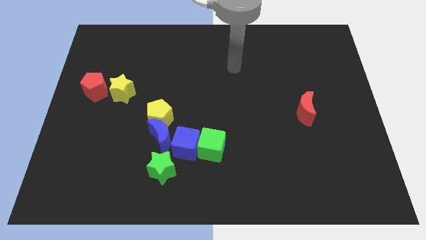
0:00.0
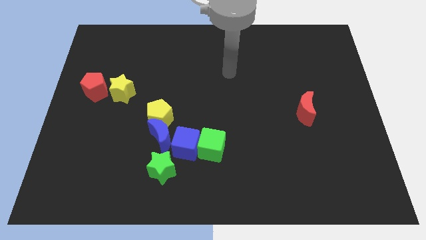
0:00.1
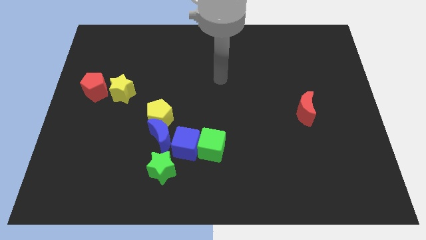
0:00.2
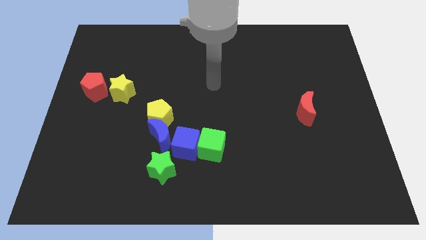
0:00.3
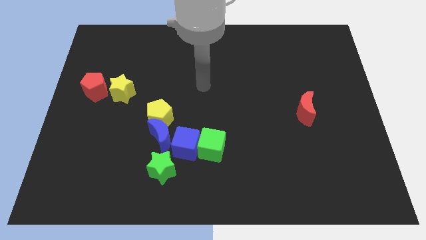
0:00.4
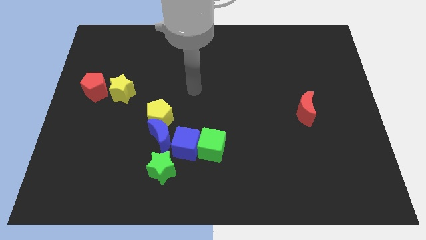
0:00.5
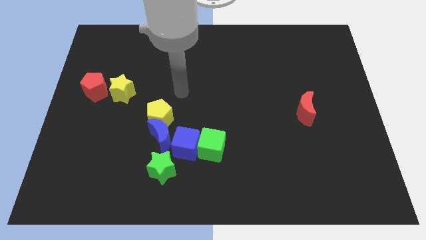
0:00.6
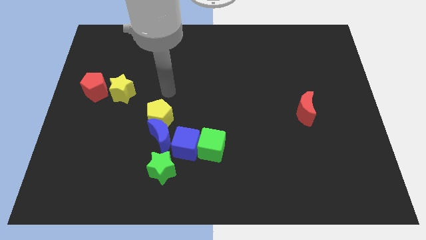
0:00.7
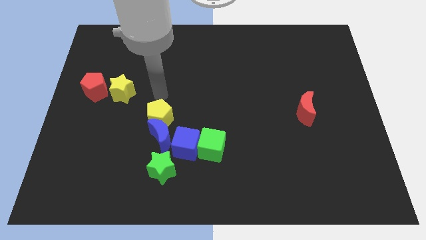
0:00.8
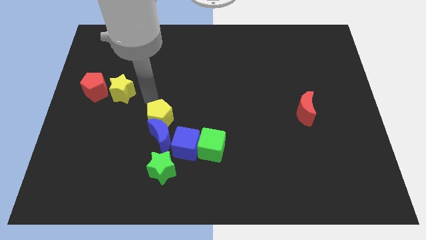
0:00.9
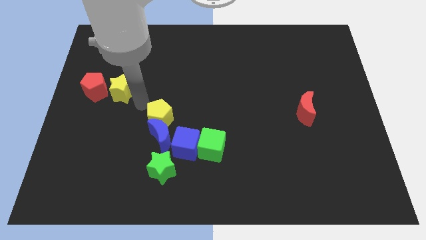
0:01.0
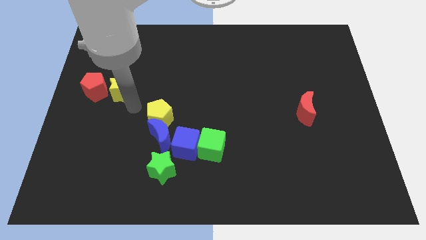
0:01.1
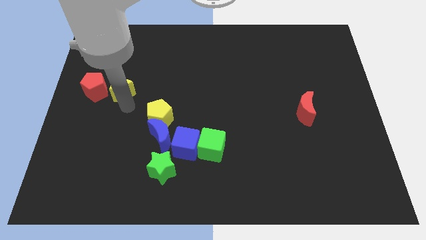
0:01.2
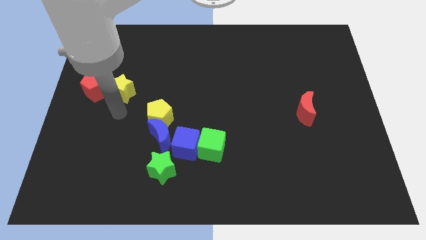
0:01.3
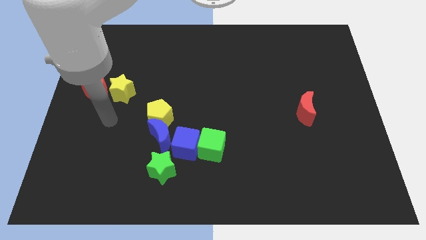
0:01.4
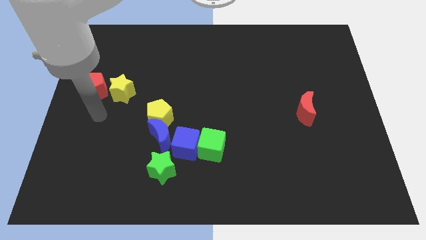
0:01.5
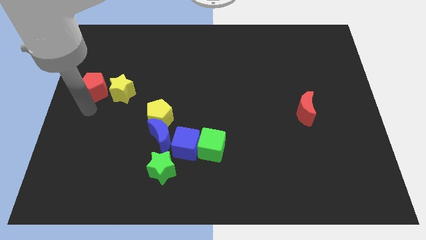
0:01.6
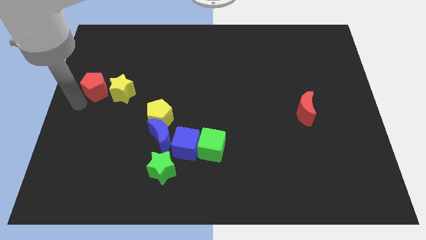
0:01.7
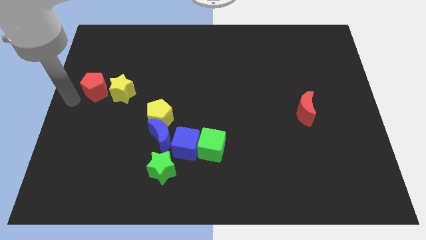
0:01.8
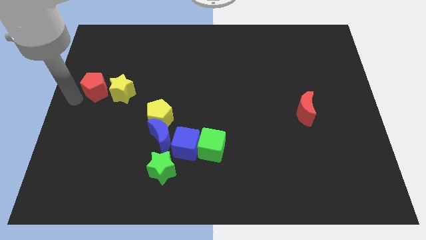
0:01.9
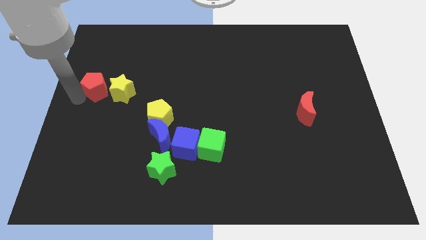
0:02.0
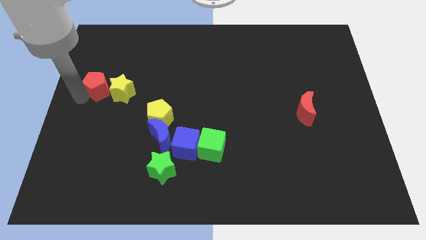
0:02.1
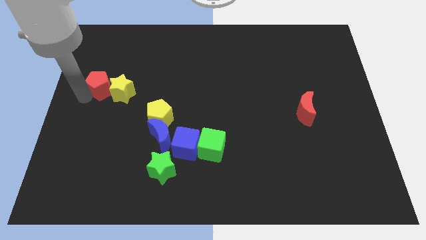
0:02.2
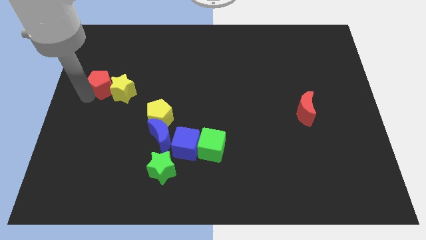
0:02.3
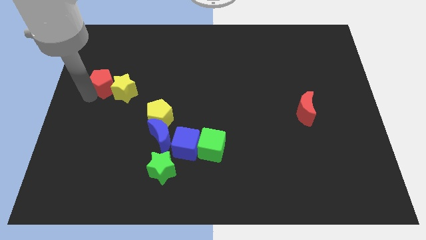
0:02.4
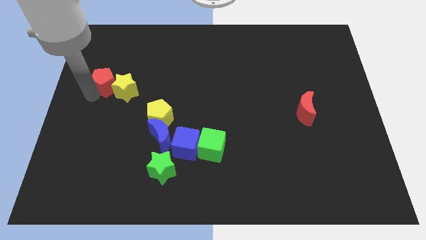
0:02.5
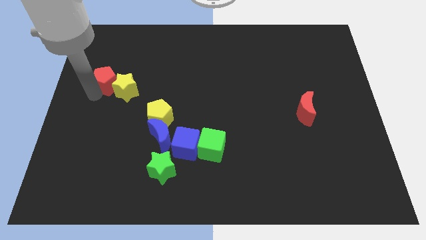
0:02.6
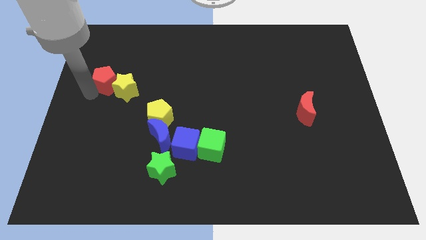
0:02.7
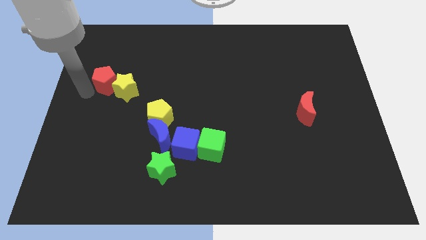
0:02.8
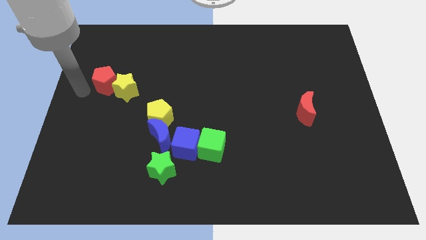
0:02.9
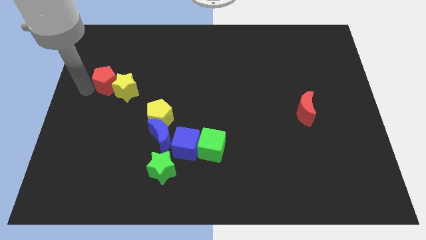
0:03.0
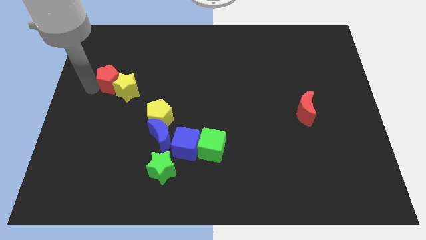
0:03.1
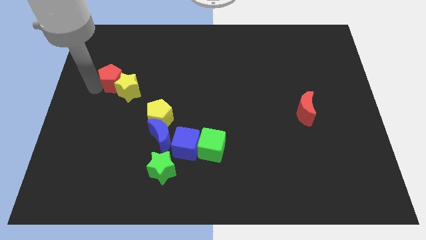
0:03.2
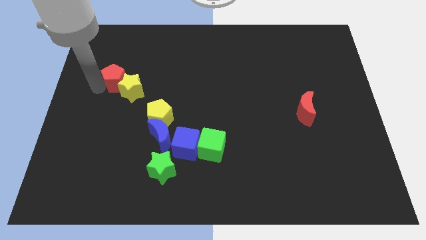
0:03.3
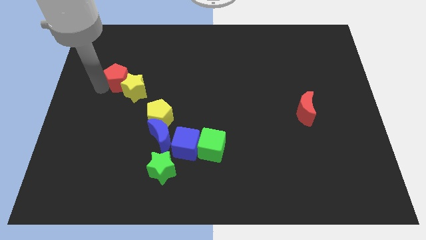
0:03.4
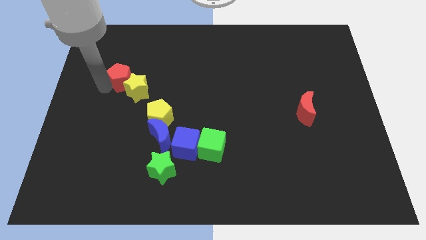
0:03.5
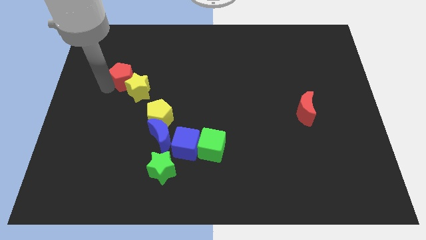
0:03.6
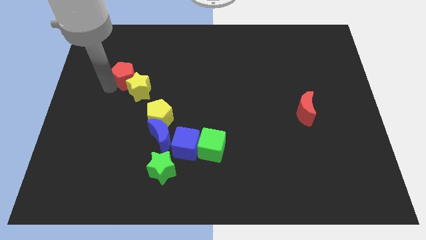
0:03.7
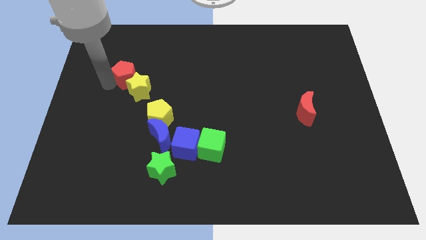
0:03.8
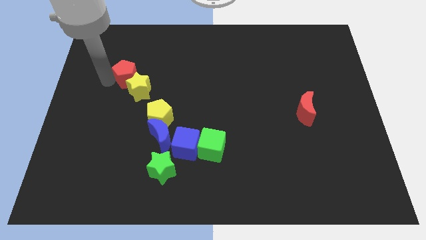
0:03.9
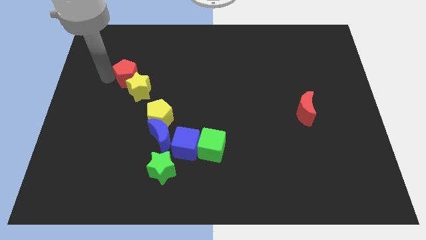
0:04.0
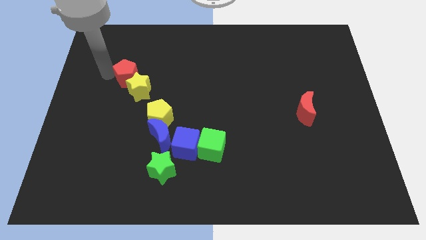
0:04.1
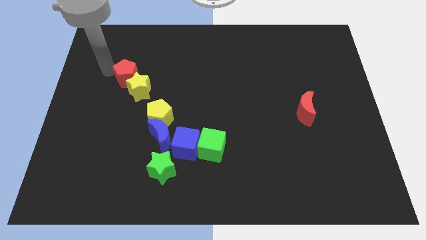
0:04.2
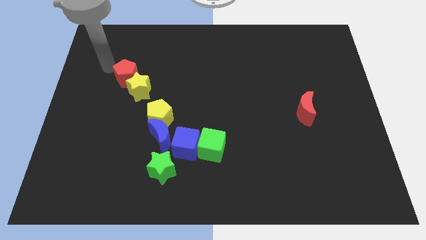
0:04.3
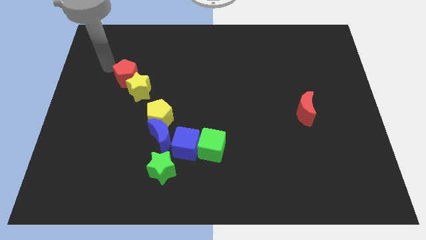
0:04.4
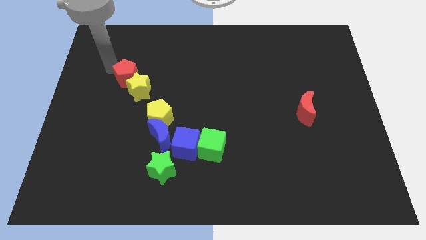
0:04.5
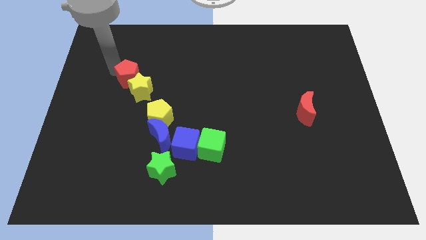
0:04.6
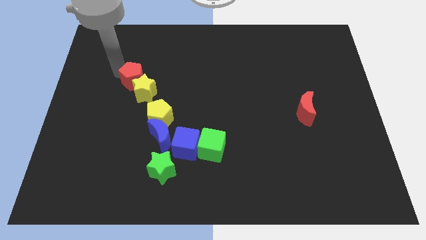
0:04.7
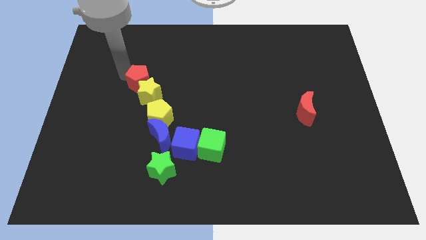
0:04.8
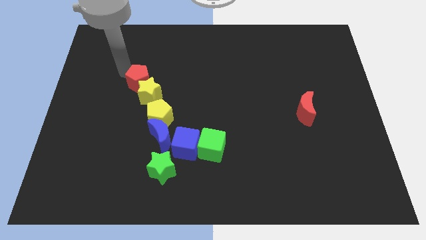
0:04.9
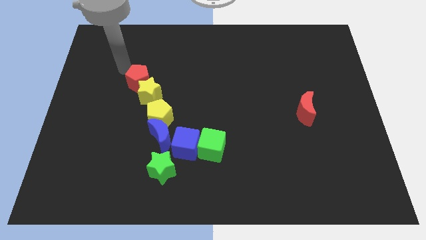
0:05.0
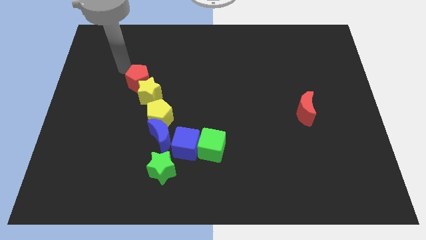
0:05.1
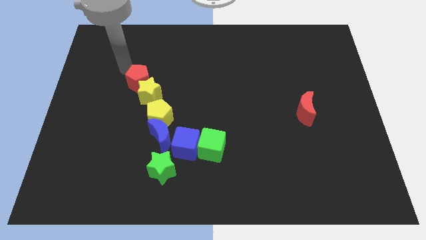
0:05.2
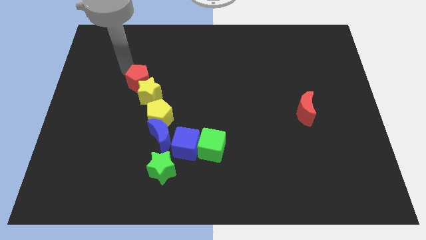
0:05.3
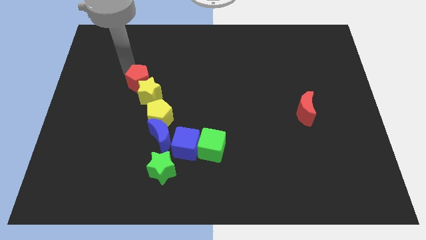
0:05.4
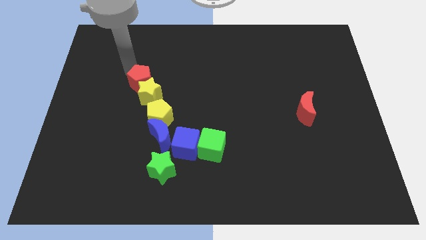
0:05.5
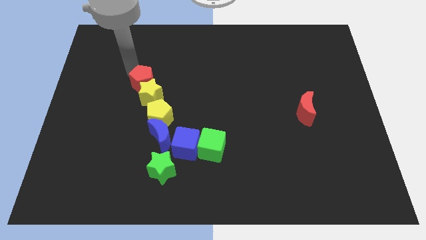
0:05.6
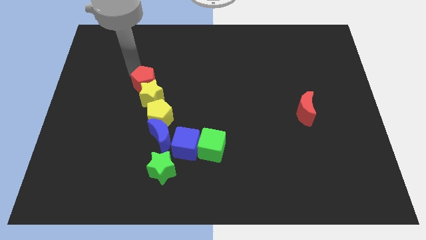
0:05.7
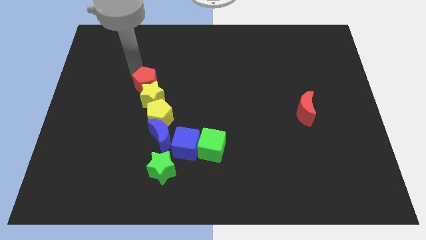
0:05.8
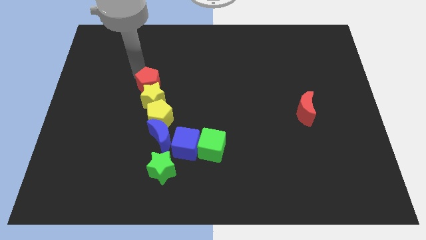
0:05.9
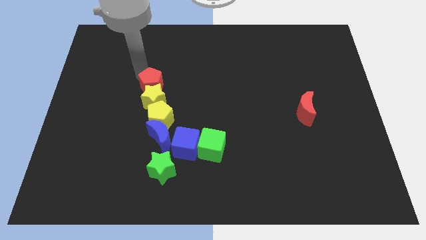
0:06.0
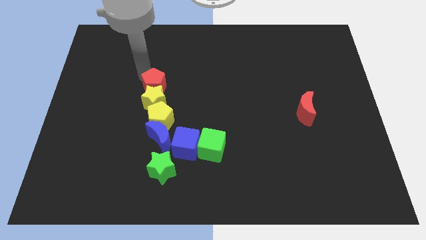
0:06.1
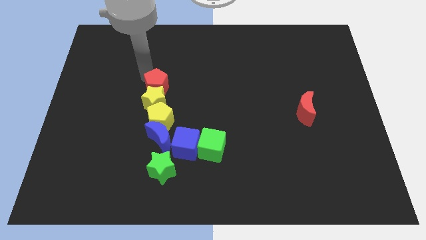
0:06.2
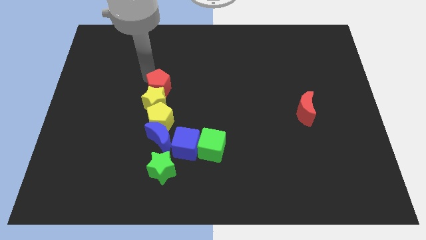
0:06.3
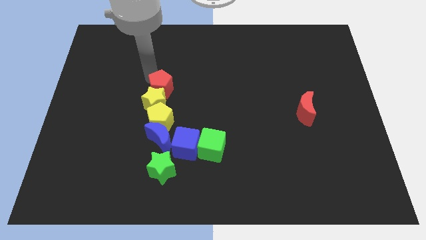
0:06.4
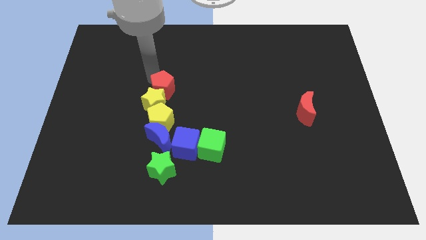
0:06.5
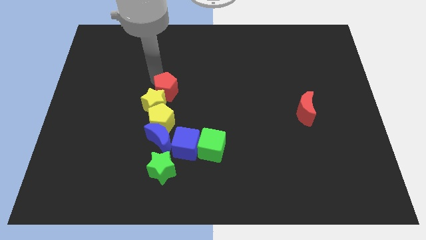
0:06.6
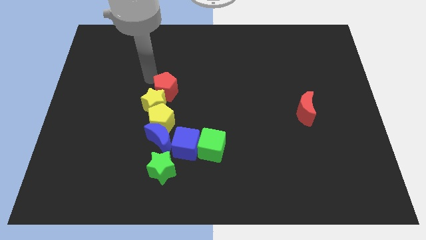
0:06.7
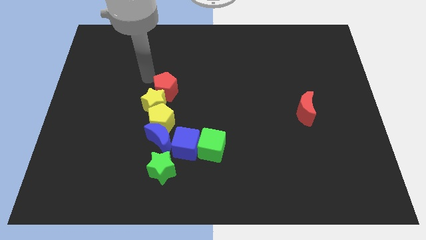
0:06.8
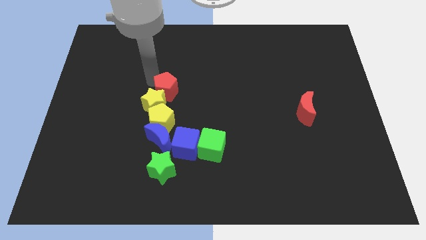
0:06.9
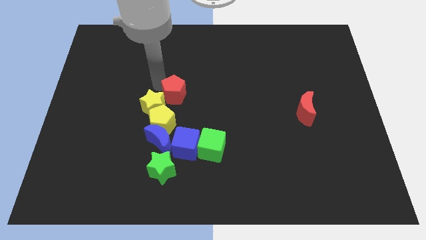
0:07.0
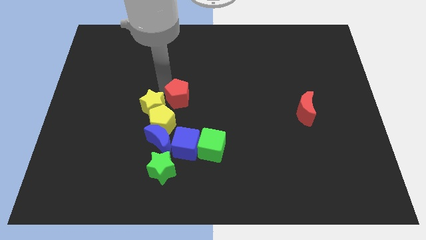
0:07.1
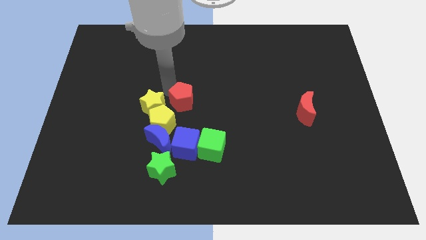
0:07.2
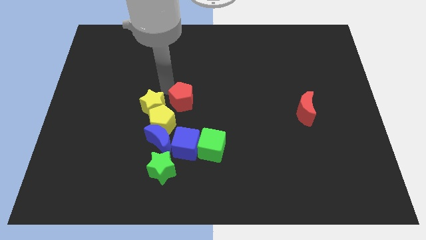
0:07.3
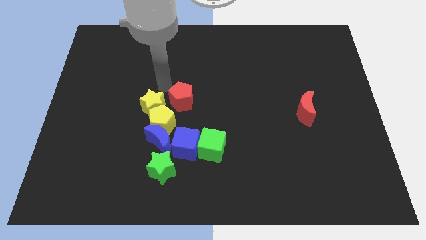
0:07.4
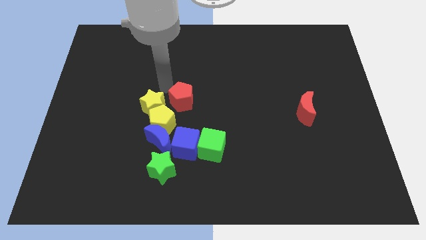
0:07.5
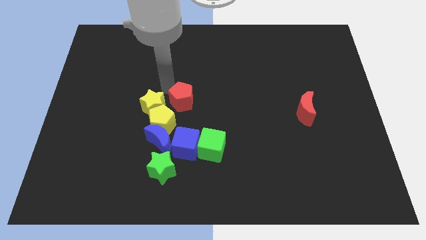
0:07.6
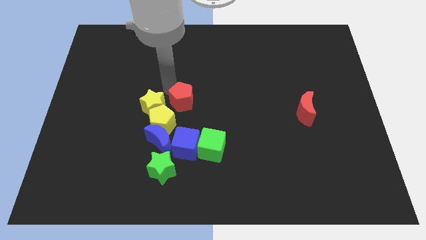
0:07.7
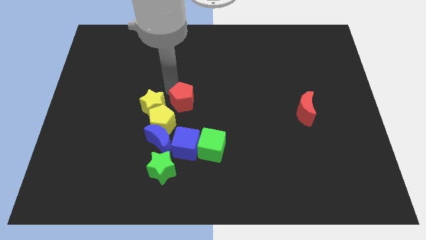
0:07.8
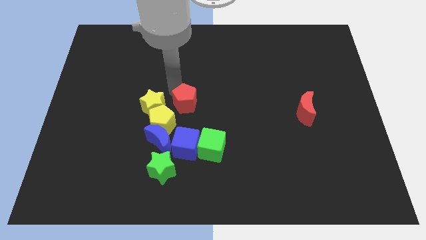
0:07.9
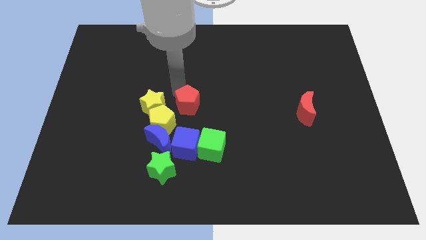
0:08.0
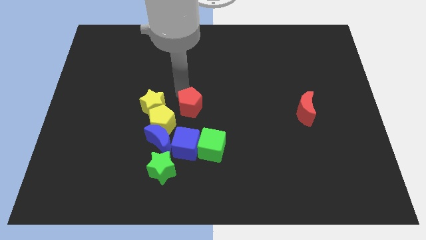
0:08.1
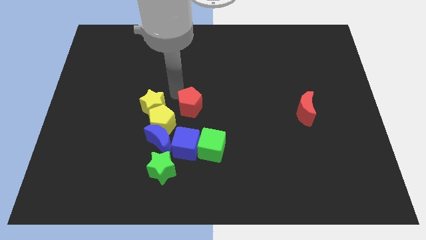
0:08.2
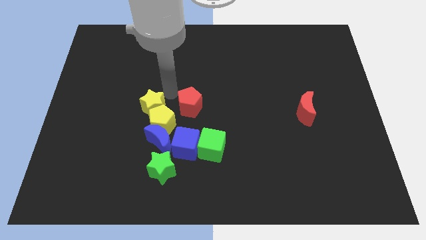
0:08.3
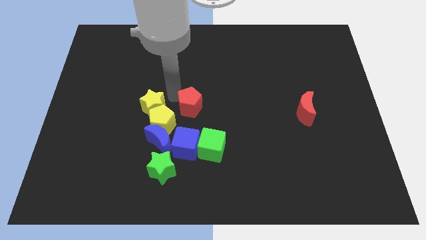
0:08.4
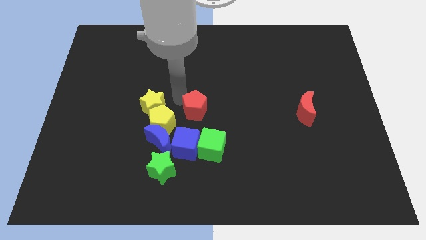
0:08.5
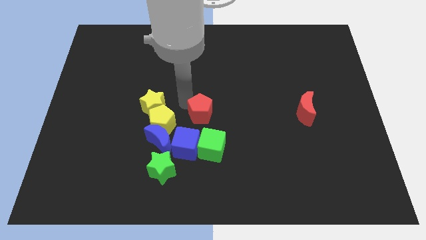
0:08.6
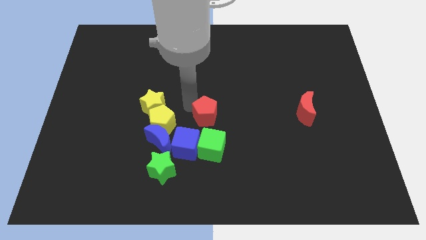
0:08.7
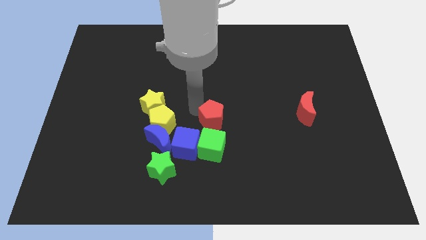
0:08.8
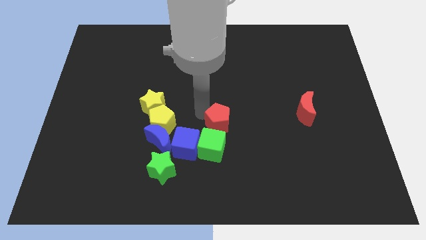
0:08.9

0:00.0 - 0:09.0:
push the red pentagon to the top right of the green cube
